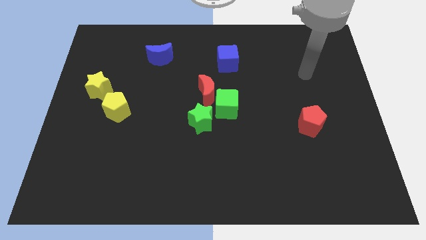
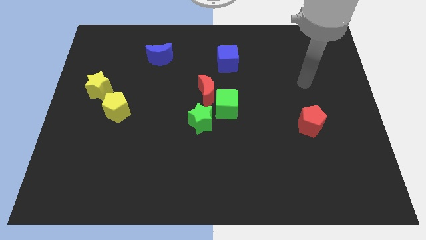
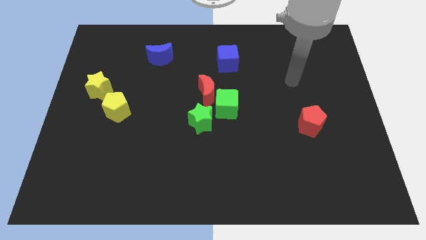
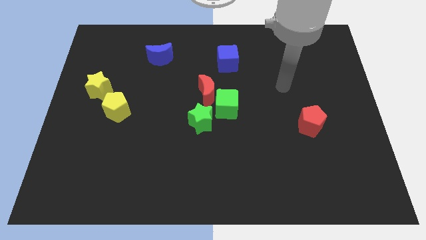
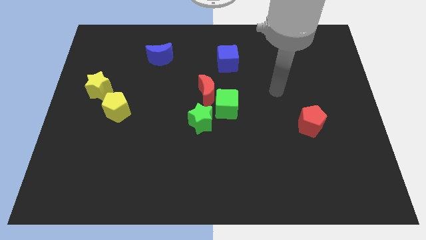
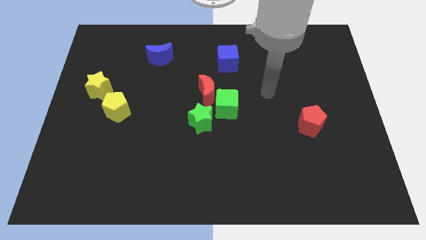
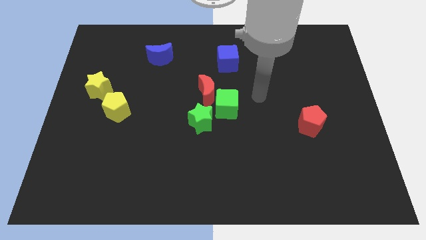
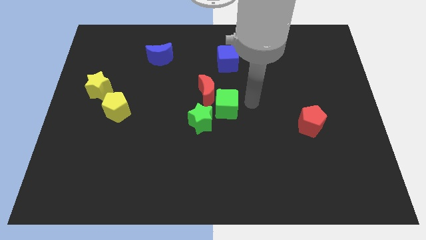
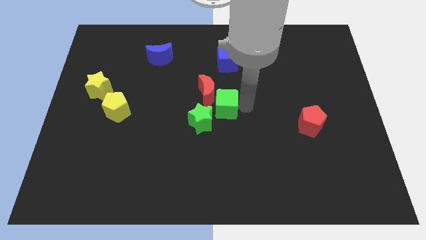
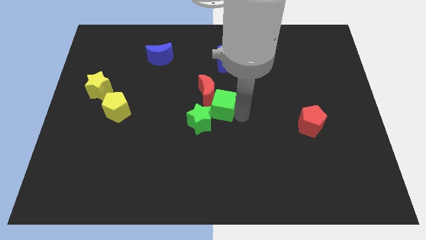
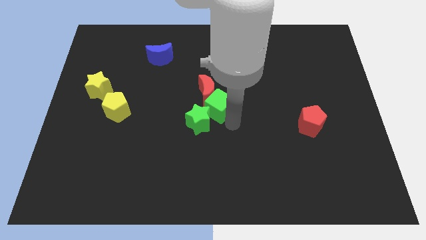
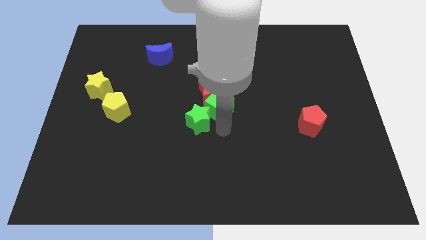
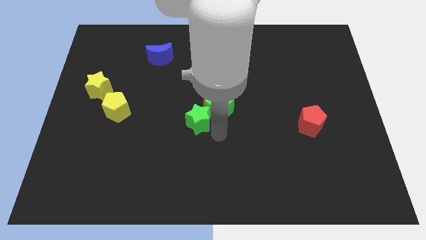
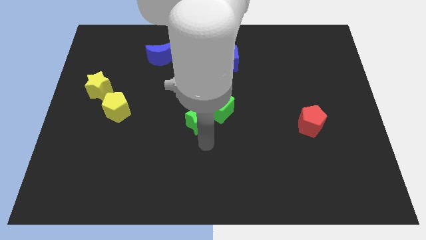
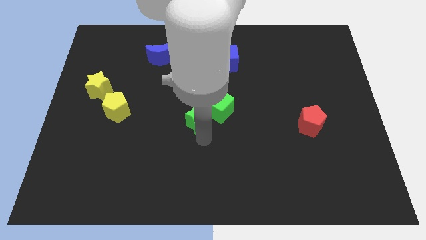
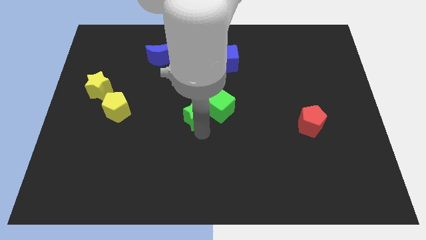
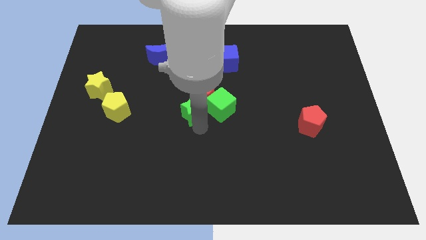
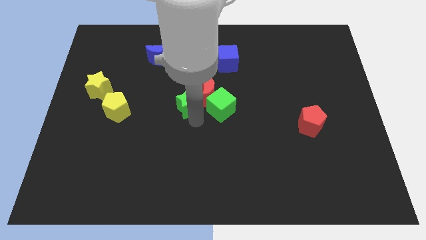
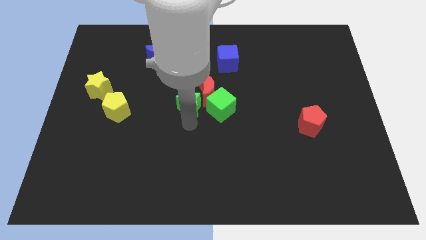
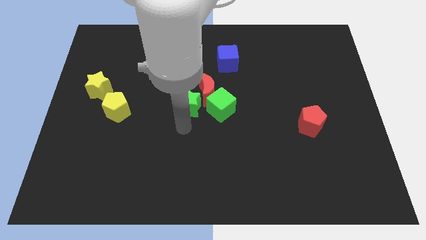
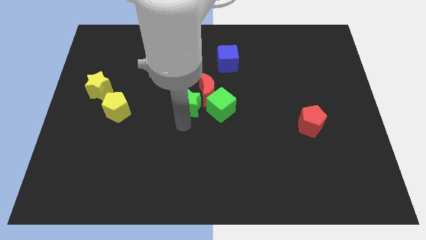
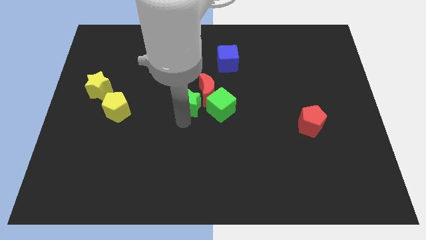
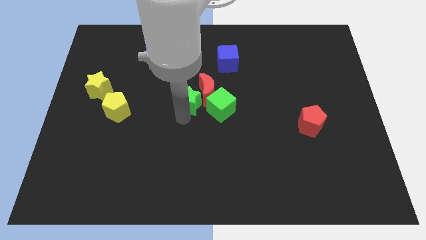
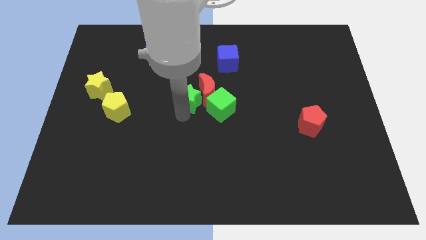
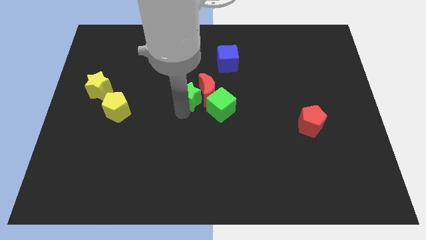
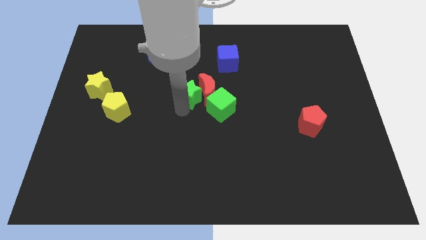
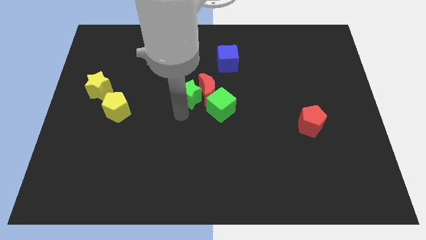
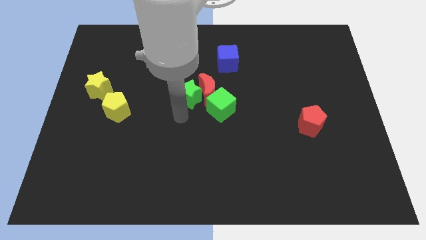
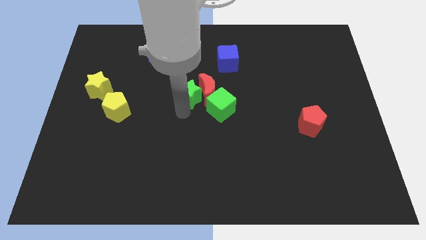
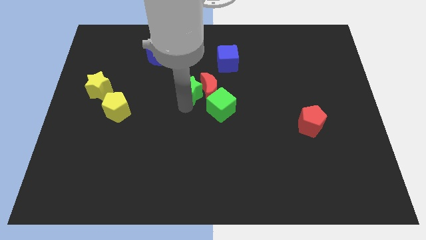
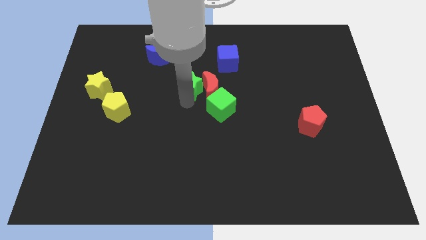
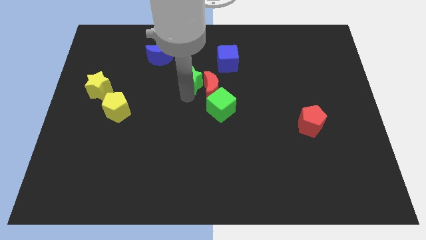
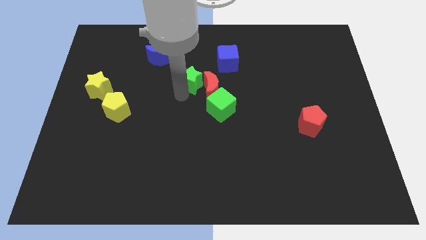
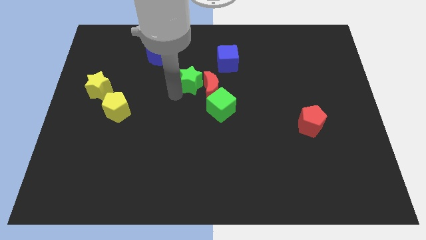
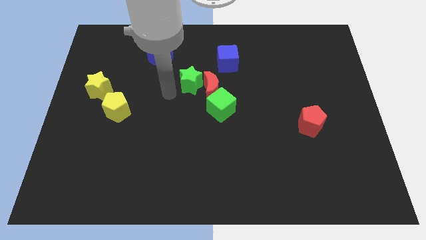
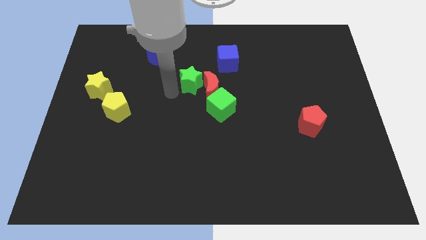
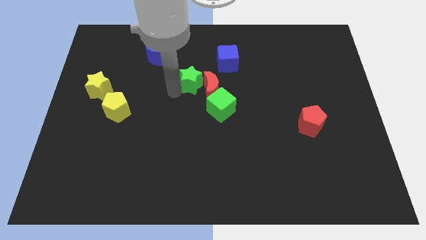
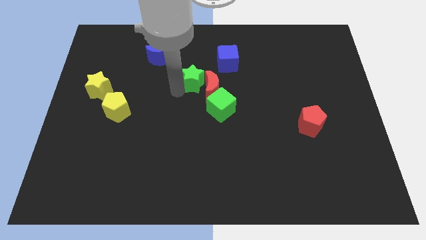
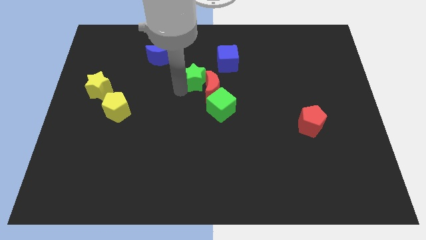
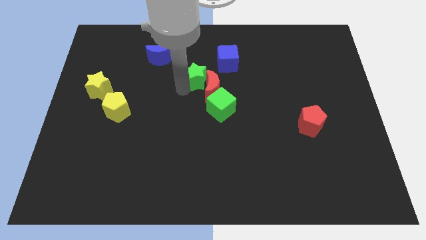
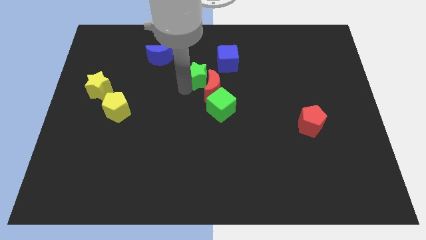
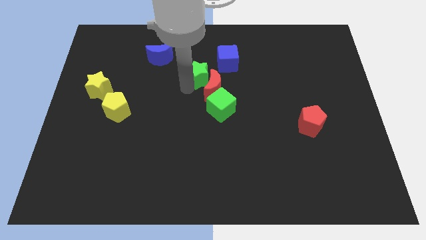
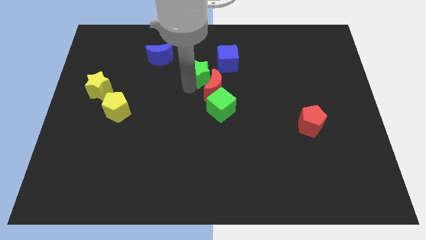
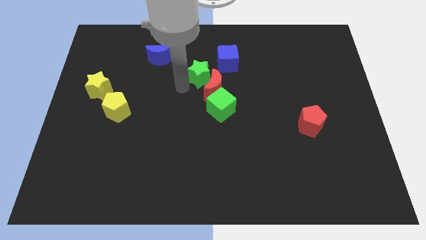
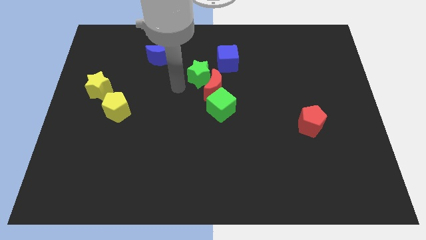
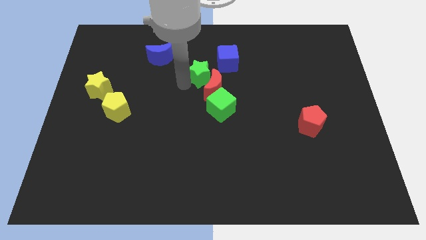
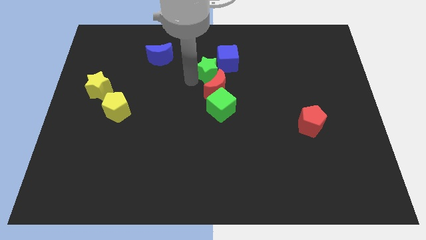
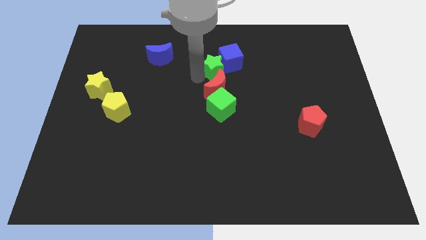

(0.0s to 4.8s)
move the green star towards the blue cube

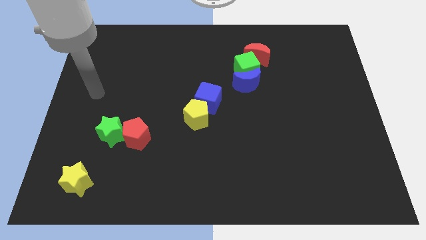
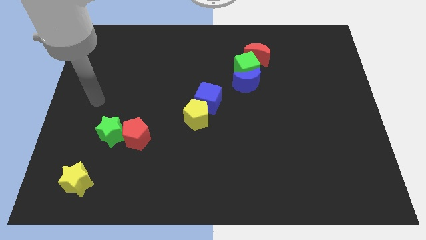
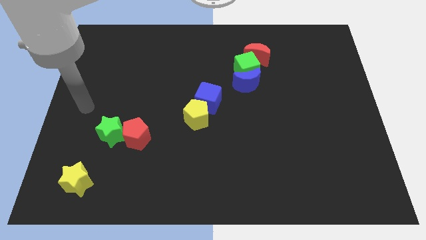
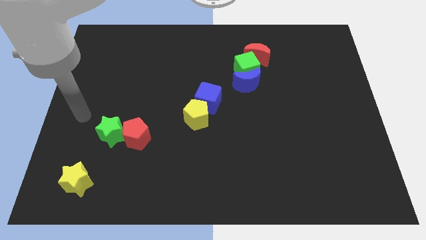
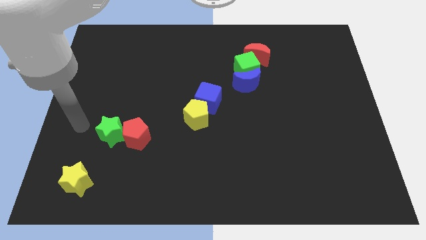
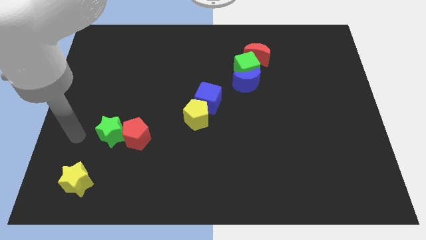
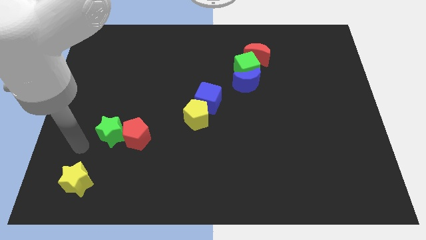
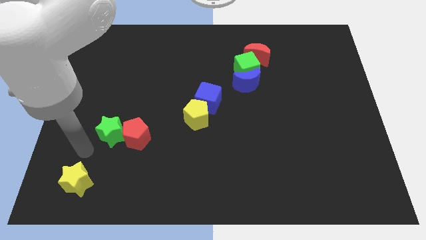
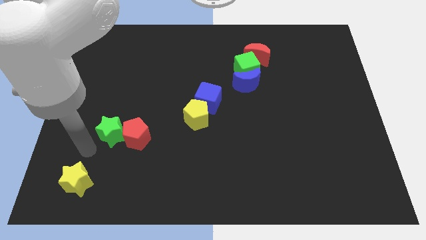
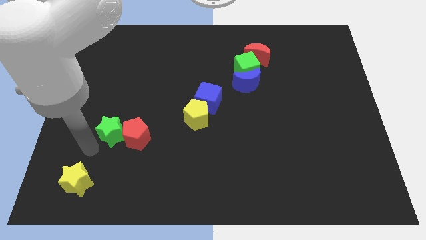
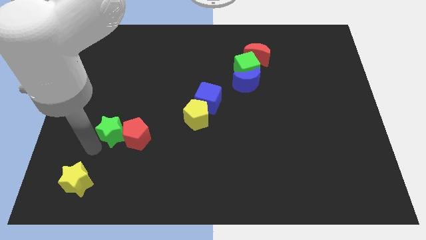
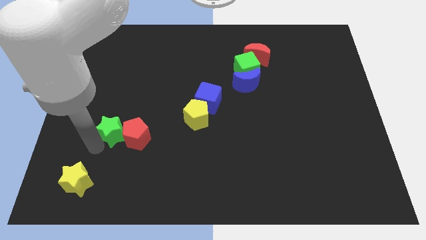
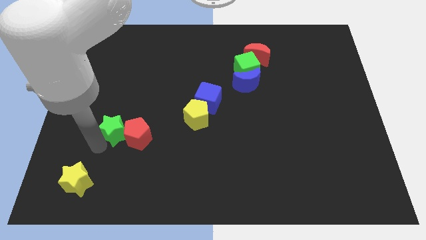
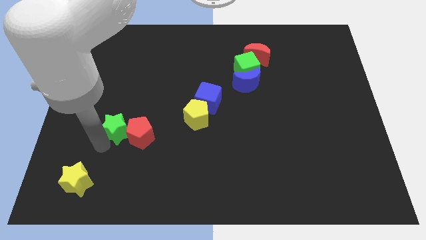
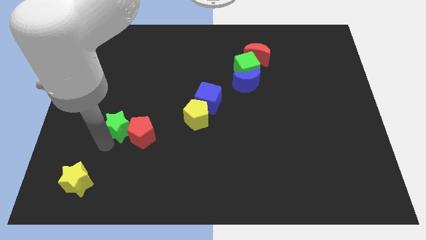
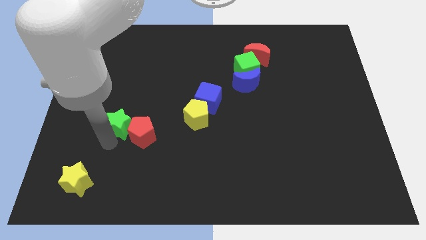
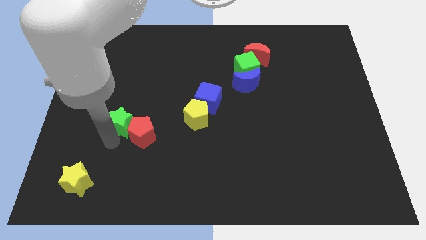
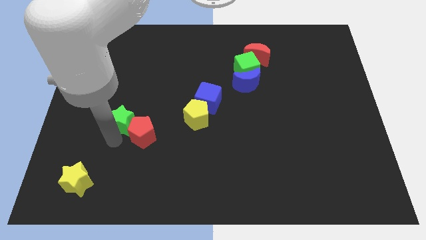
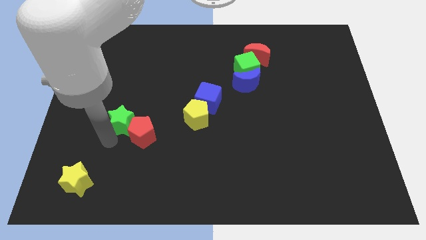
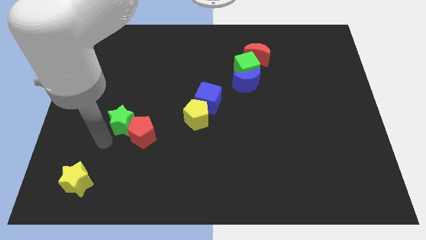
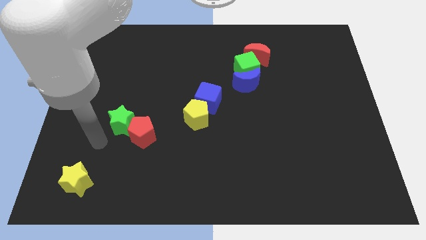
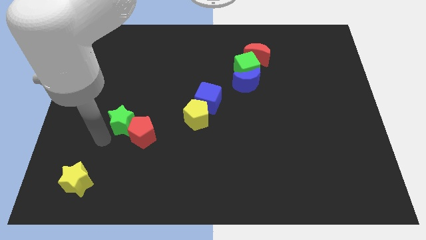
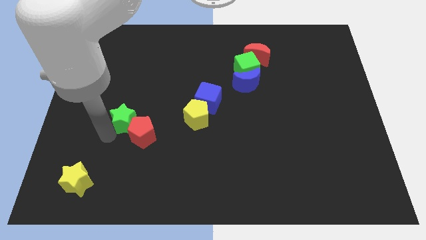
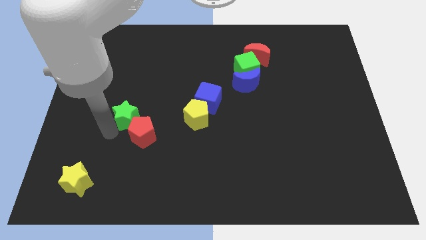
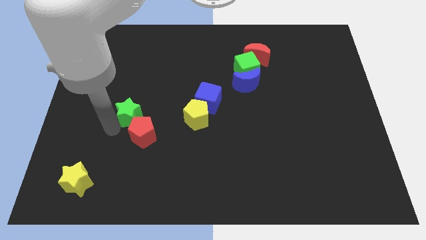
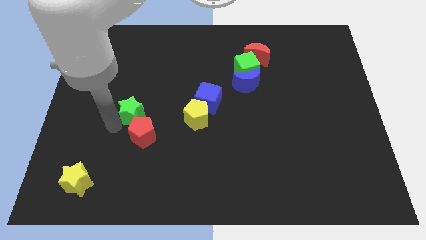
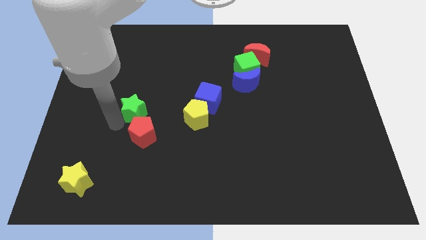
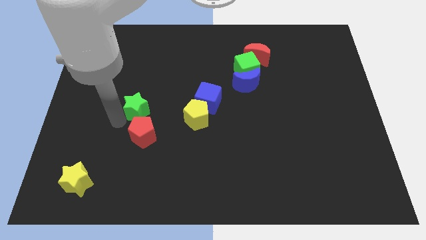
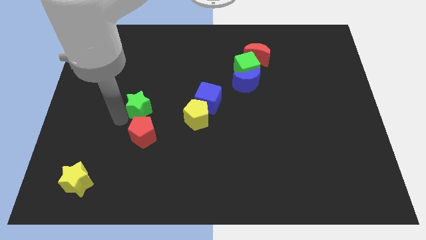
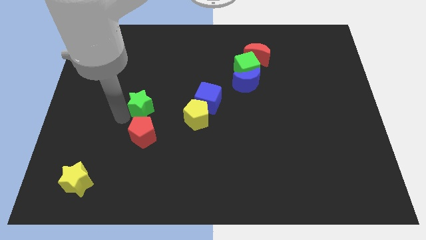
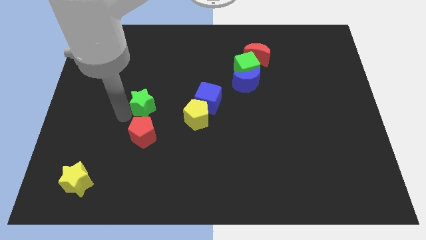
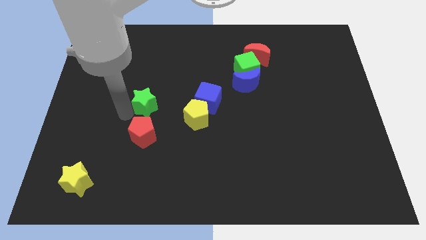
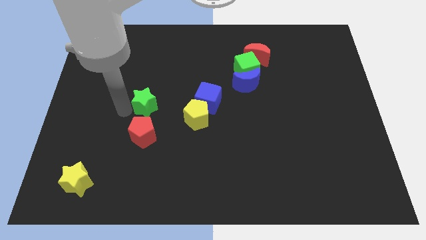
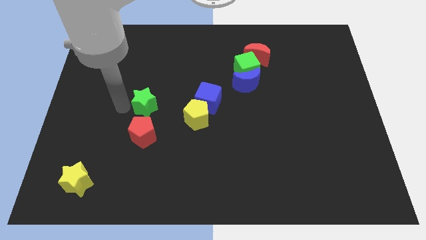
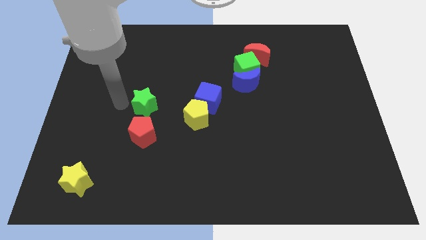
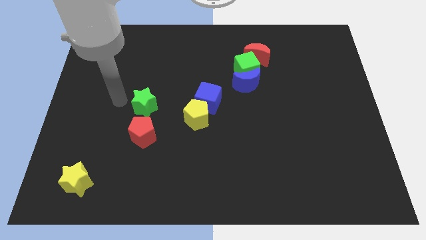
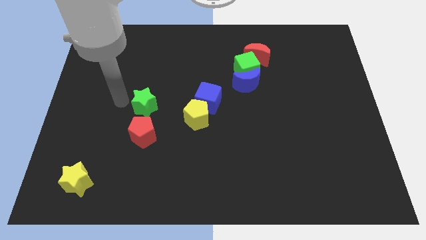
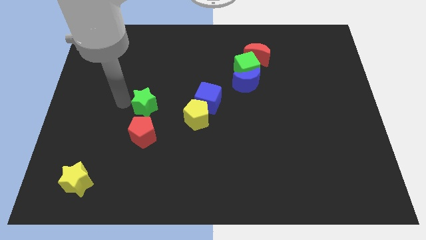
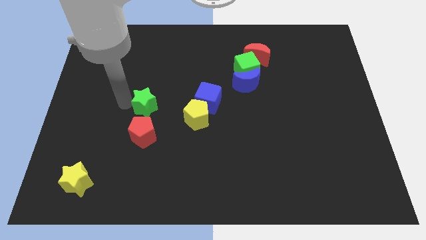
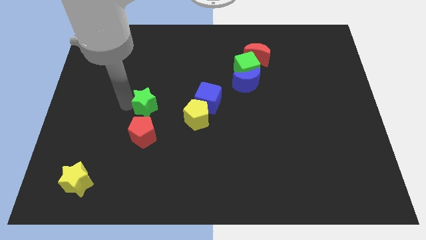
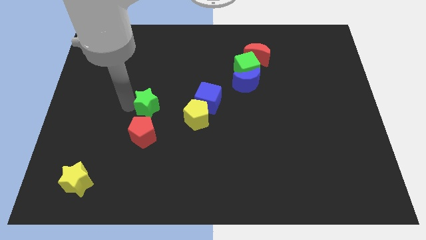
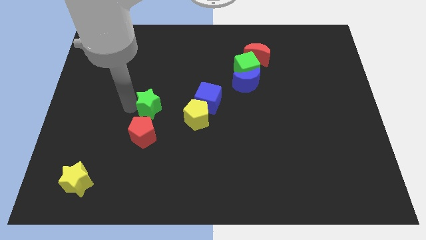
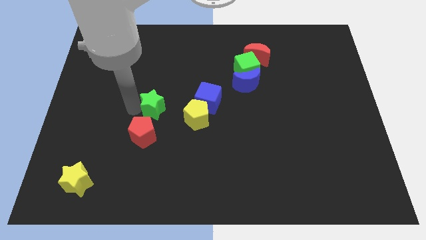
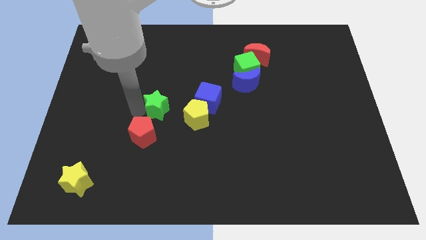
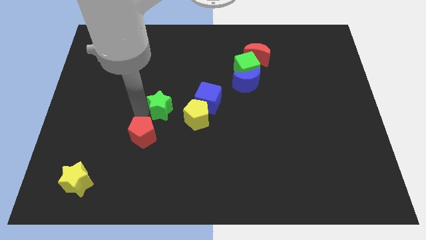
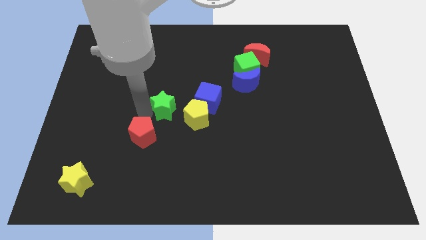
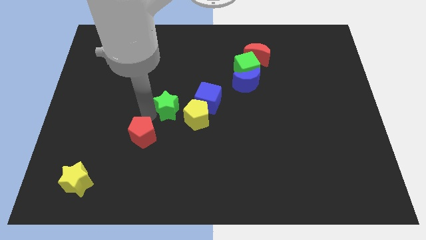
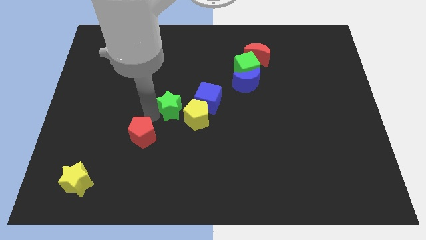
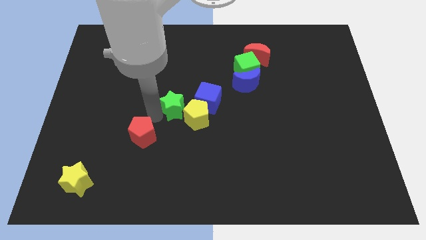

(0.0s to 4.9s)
push the green star close to the yellow pentagon
